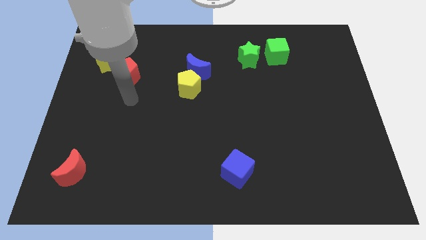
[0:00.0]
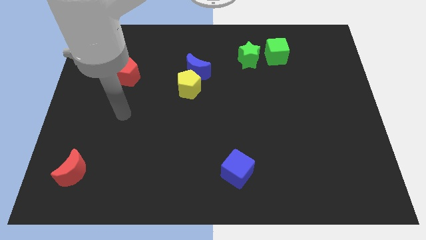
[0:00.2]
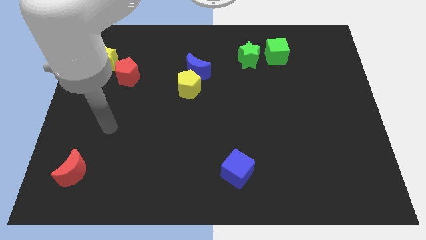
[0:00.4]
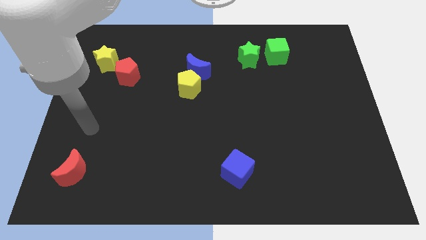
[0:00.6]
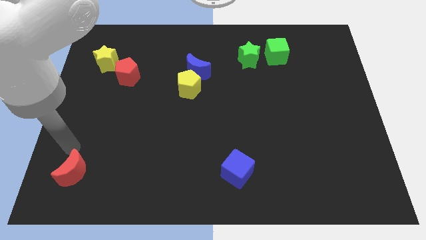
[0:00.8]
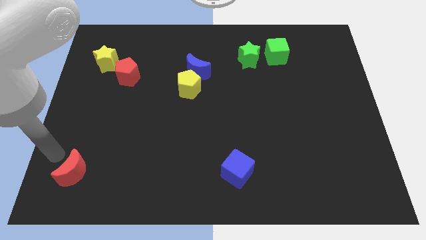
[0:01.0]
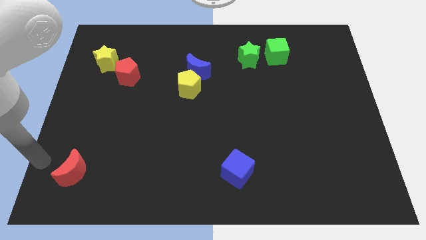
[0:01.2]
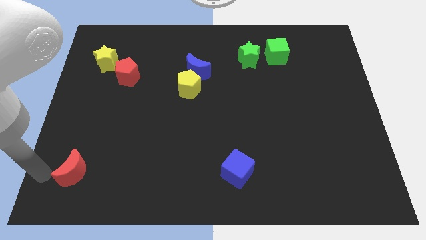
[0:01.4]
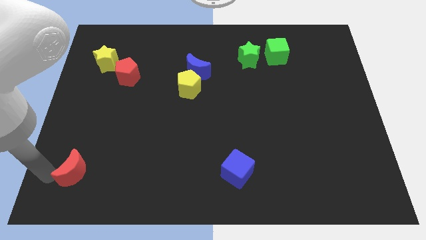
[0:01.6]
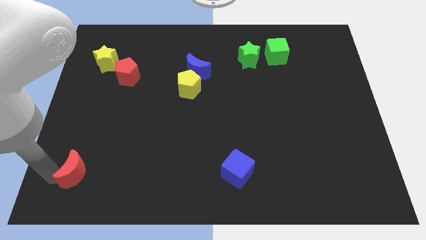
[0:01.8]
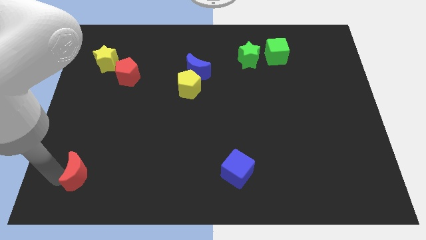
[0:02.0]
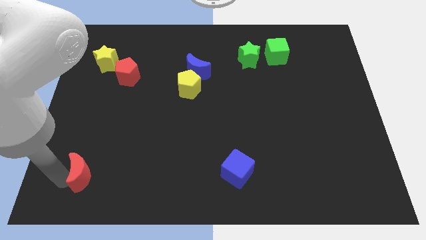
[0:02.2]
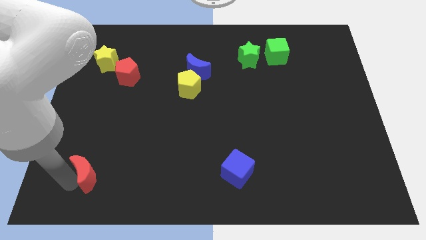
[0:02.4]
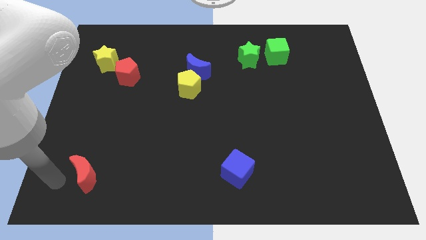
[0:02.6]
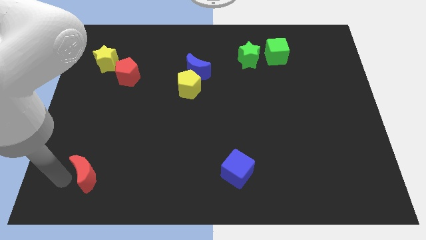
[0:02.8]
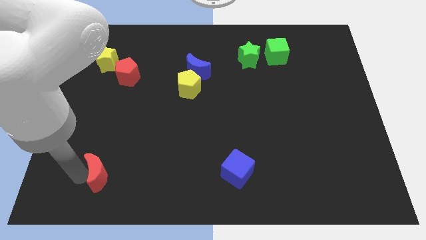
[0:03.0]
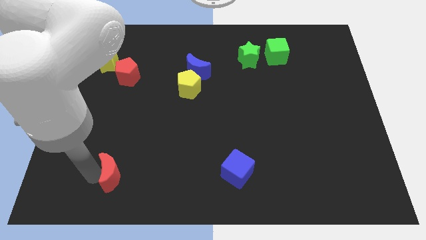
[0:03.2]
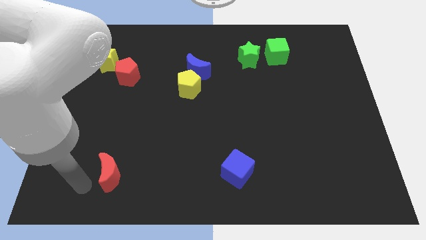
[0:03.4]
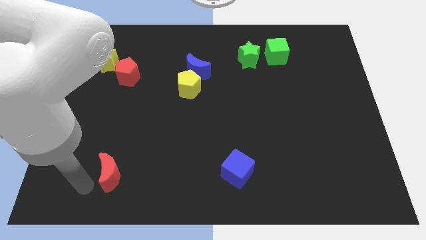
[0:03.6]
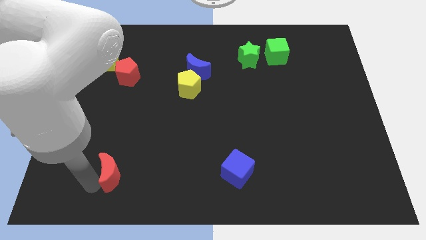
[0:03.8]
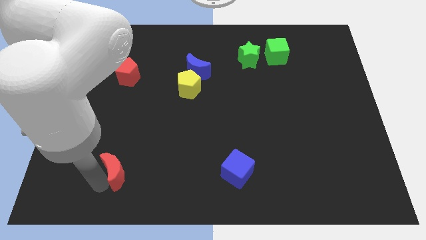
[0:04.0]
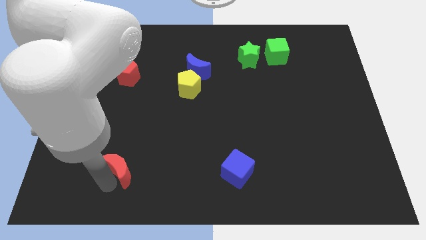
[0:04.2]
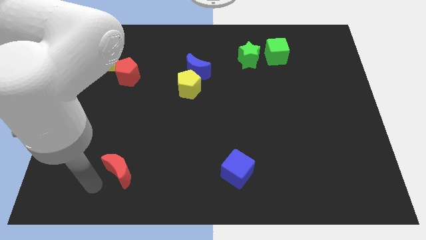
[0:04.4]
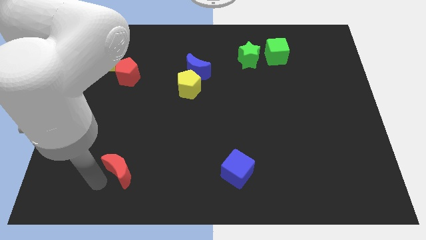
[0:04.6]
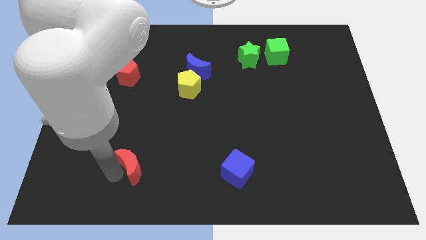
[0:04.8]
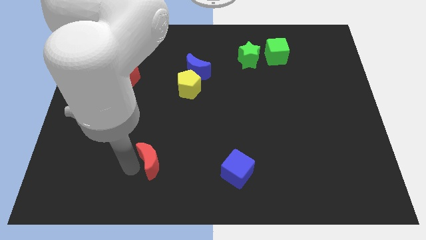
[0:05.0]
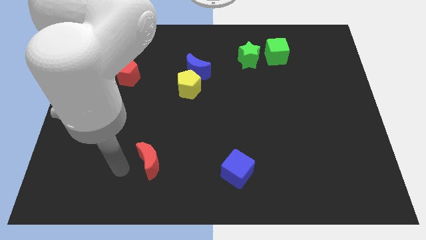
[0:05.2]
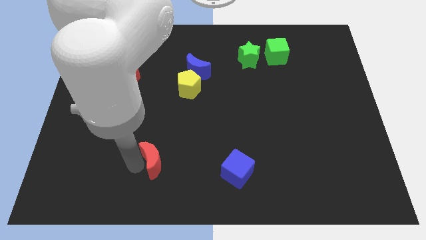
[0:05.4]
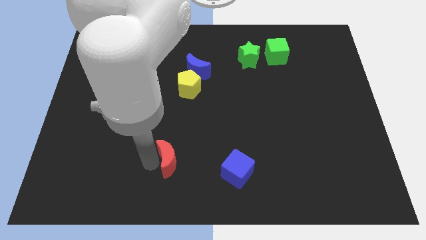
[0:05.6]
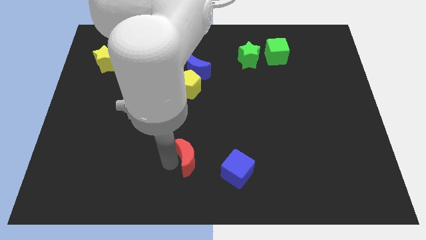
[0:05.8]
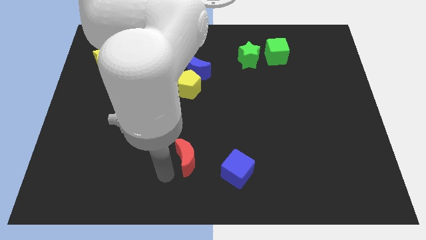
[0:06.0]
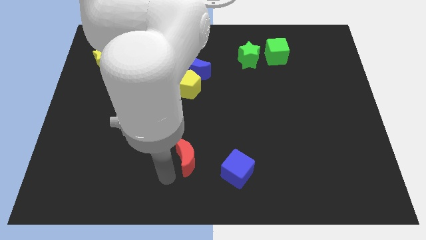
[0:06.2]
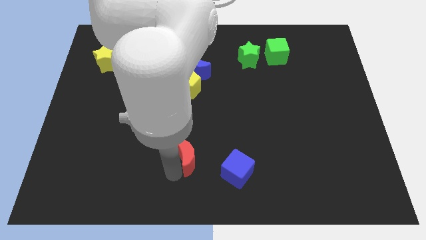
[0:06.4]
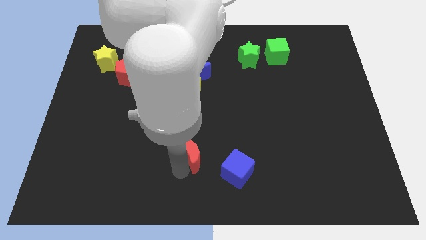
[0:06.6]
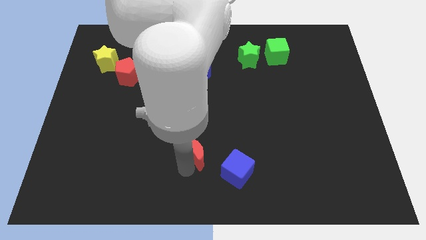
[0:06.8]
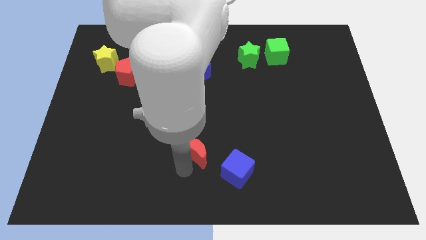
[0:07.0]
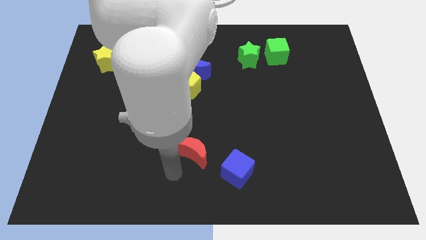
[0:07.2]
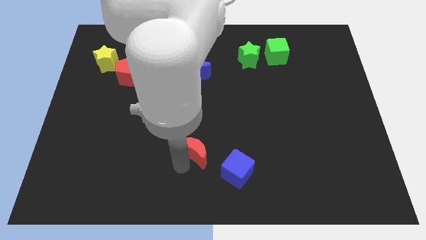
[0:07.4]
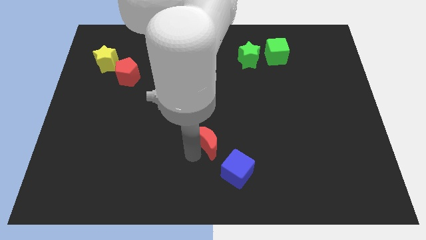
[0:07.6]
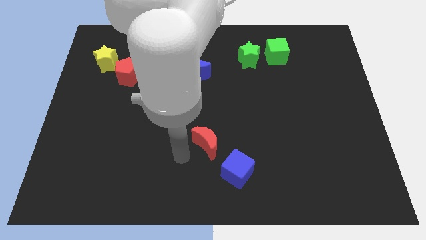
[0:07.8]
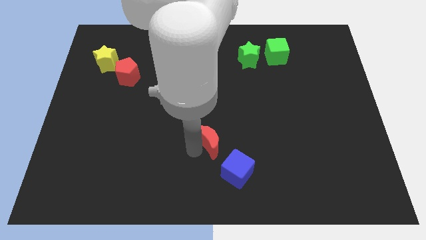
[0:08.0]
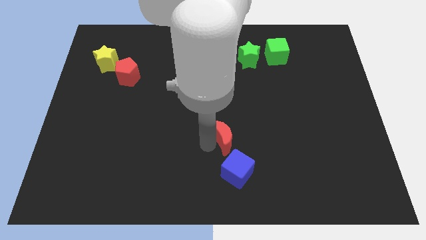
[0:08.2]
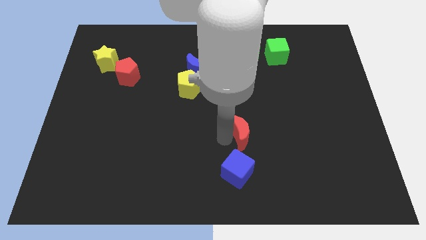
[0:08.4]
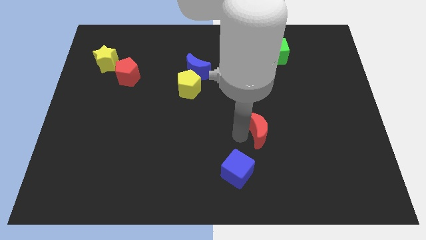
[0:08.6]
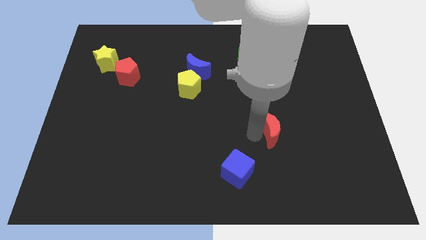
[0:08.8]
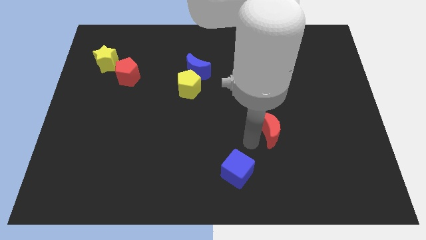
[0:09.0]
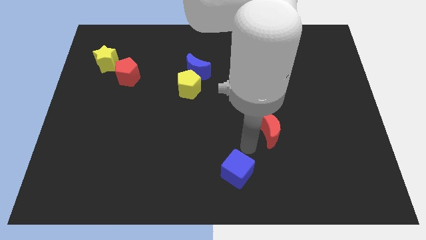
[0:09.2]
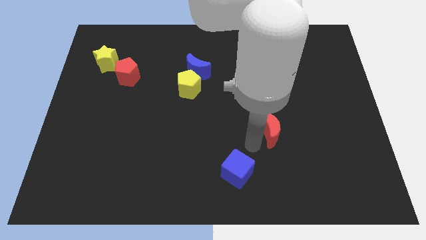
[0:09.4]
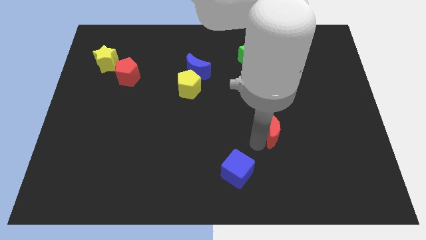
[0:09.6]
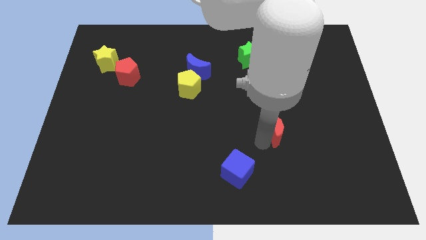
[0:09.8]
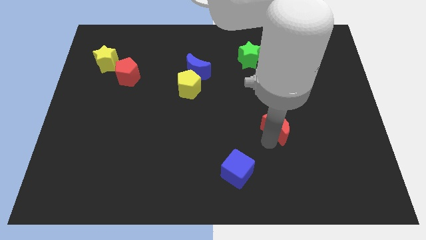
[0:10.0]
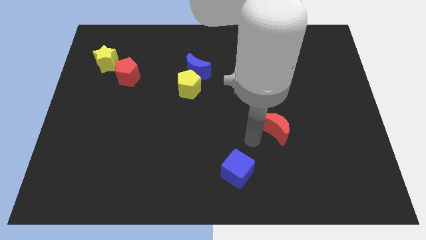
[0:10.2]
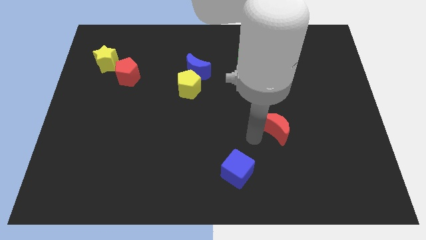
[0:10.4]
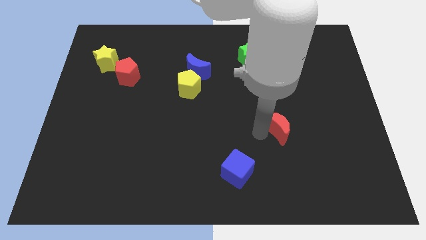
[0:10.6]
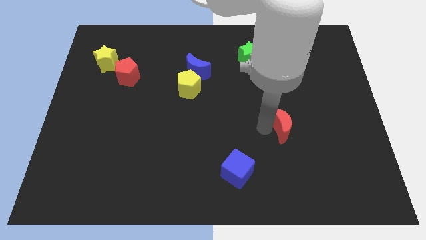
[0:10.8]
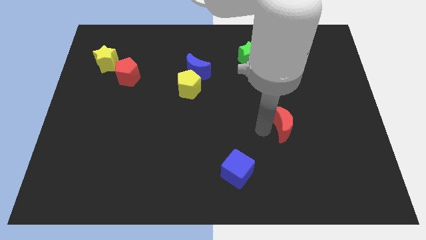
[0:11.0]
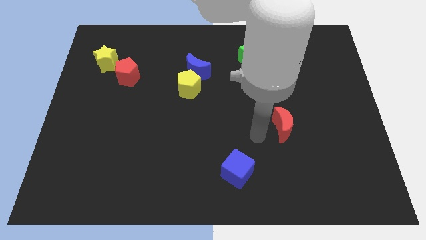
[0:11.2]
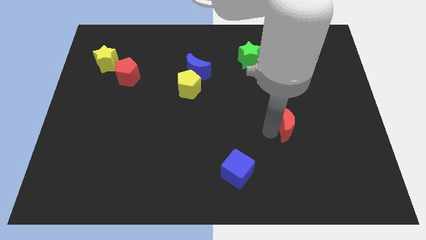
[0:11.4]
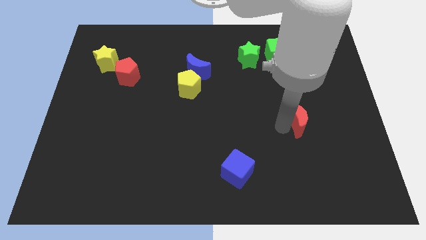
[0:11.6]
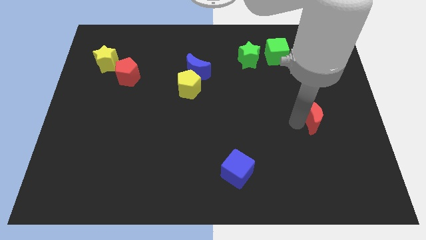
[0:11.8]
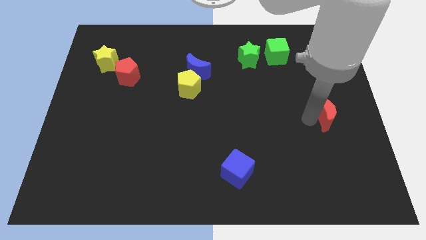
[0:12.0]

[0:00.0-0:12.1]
move the red moon to the right side

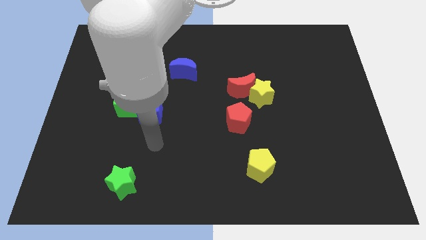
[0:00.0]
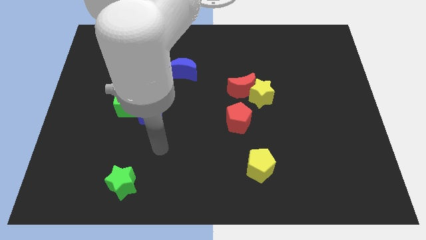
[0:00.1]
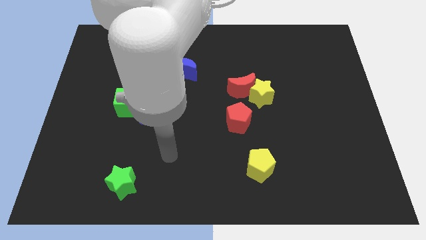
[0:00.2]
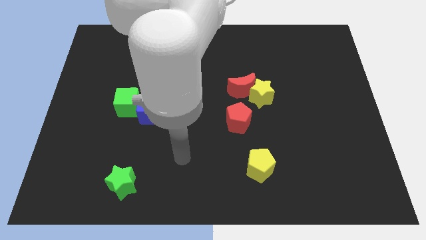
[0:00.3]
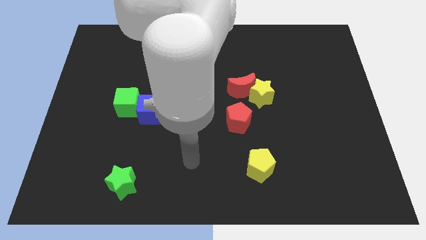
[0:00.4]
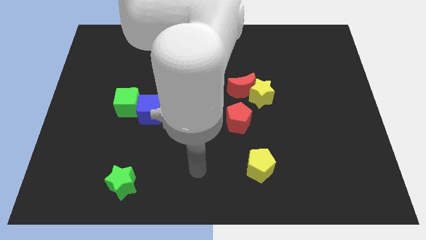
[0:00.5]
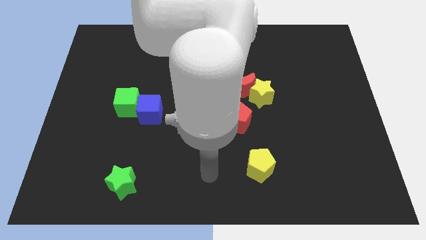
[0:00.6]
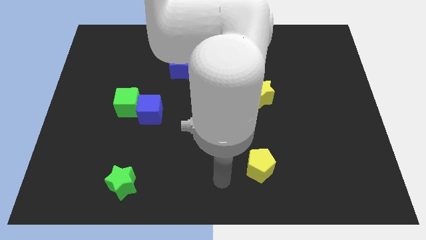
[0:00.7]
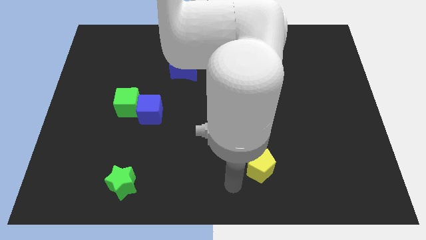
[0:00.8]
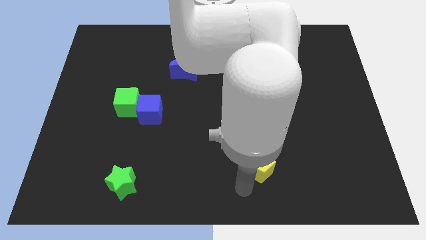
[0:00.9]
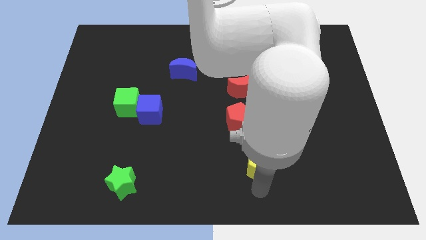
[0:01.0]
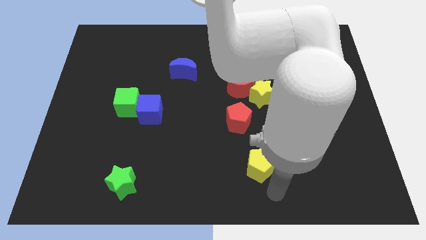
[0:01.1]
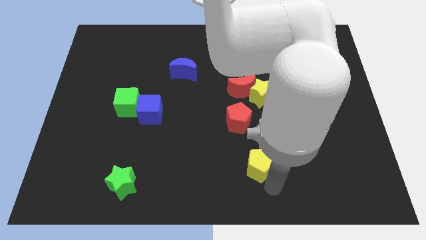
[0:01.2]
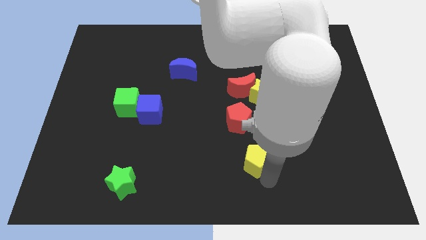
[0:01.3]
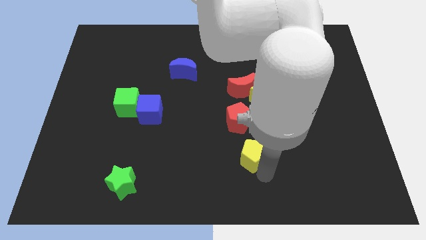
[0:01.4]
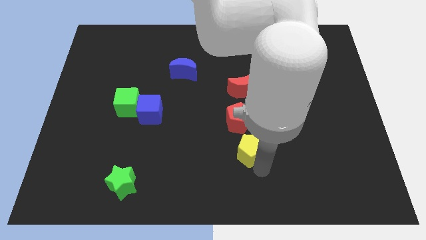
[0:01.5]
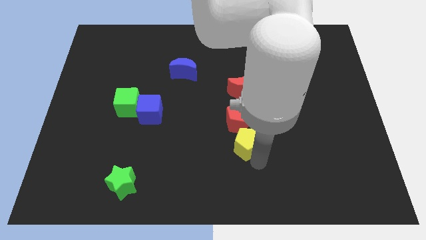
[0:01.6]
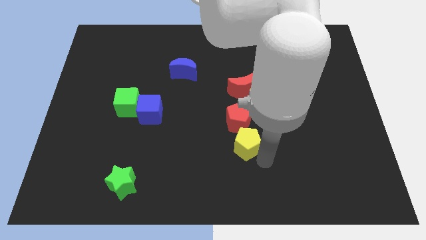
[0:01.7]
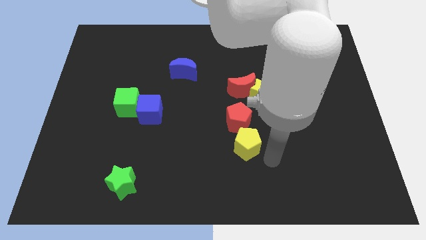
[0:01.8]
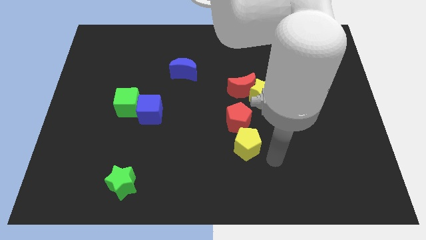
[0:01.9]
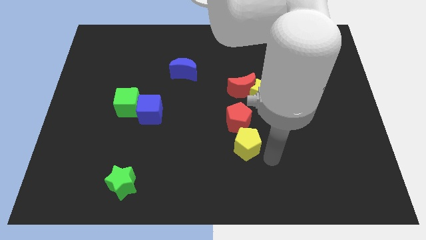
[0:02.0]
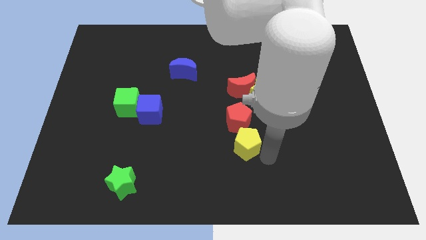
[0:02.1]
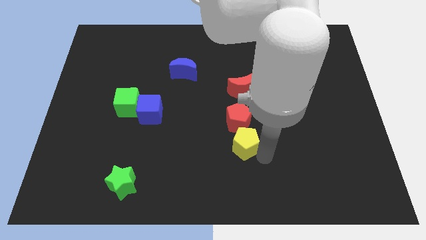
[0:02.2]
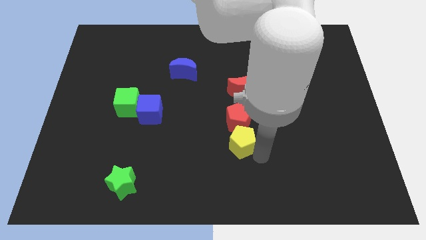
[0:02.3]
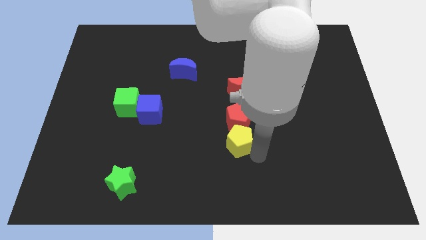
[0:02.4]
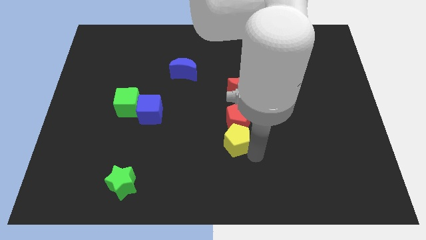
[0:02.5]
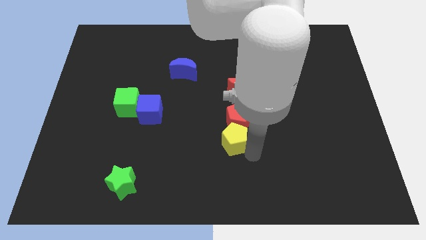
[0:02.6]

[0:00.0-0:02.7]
slide the yellow pentagon to the center
